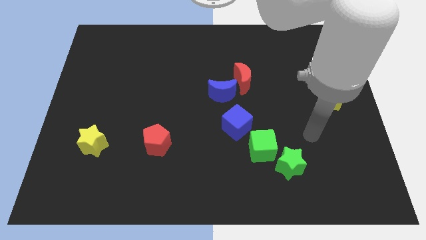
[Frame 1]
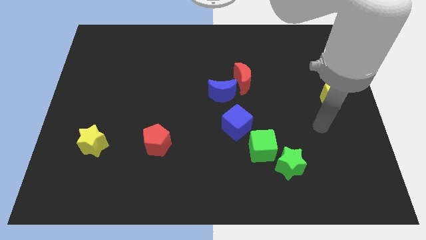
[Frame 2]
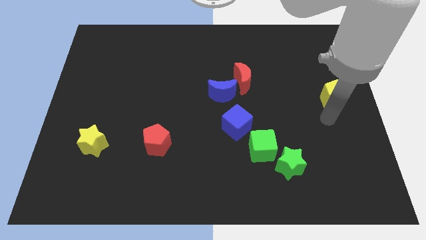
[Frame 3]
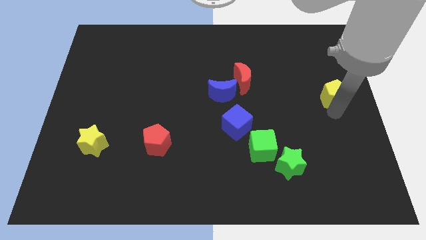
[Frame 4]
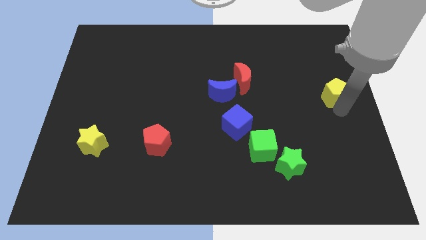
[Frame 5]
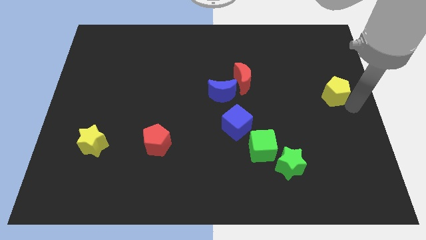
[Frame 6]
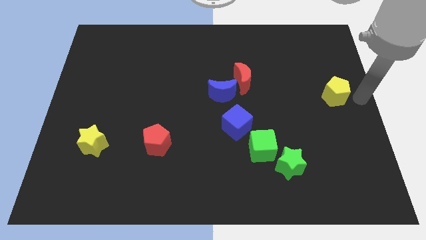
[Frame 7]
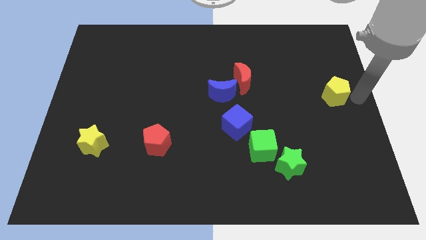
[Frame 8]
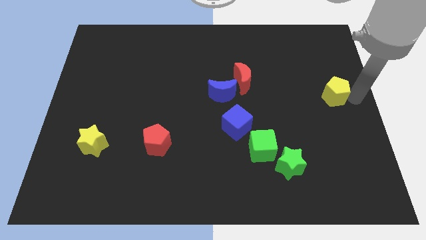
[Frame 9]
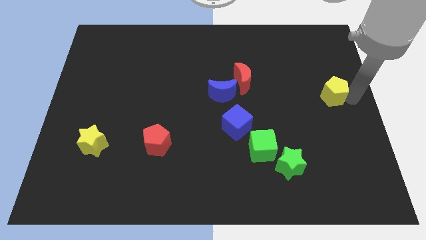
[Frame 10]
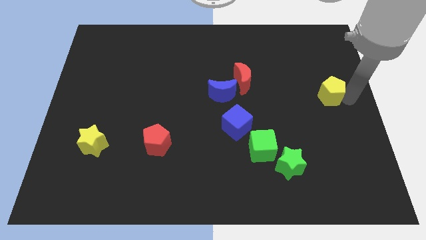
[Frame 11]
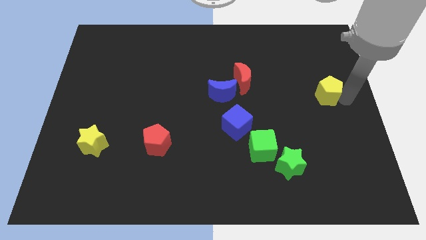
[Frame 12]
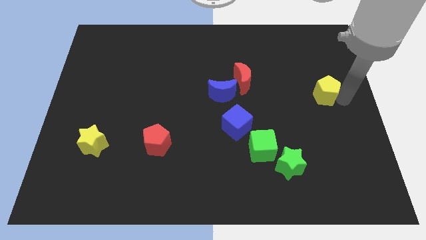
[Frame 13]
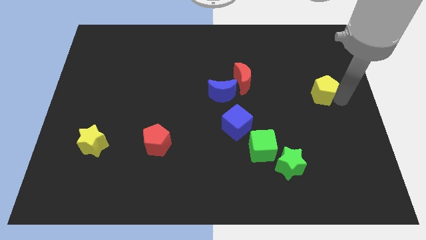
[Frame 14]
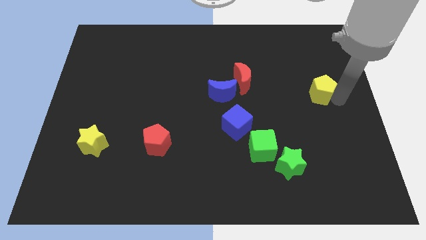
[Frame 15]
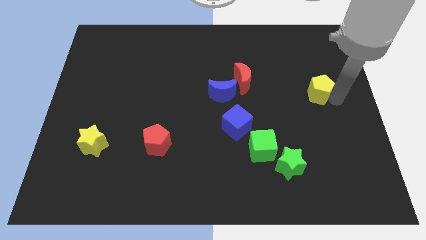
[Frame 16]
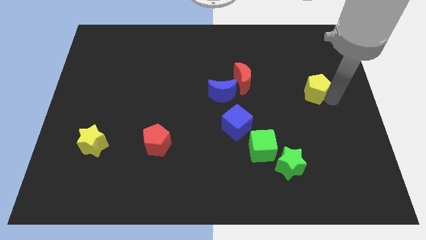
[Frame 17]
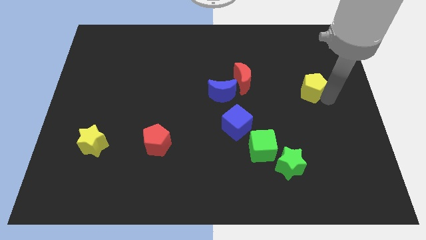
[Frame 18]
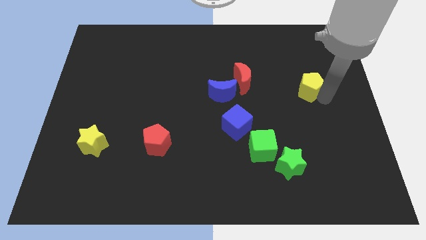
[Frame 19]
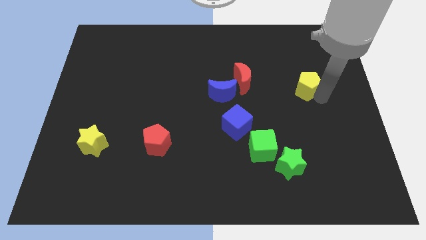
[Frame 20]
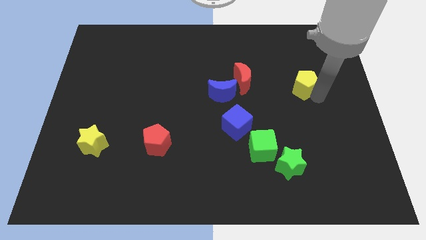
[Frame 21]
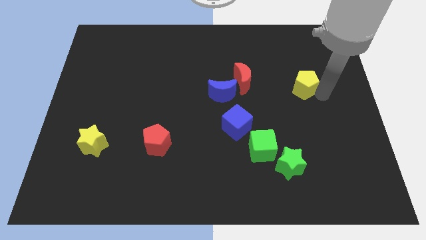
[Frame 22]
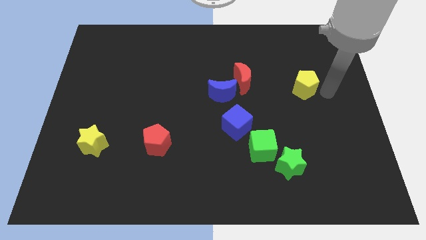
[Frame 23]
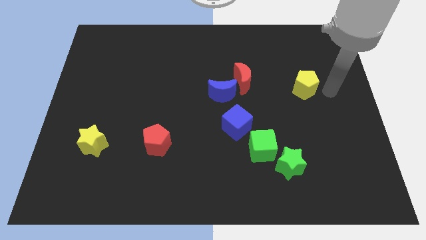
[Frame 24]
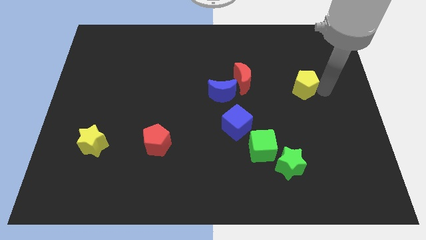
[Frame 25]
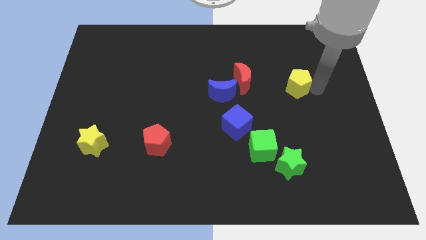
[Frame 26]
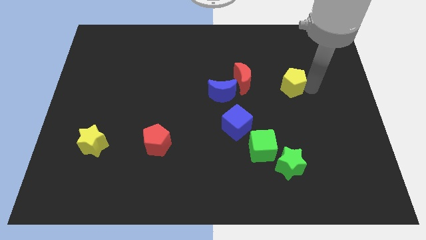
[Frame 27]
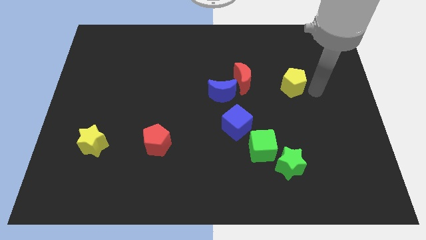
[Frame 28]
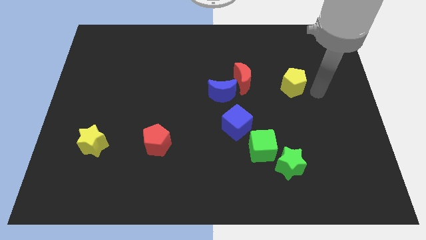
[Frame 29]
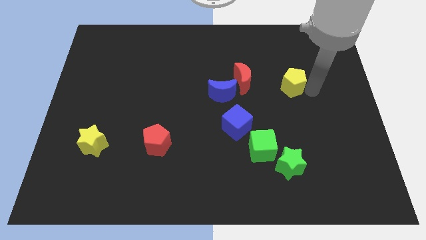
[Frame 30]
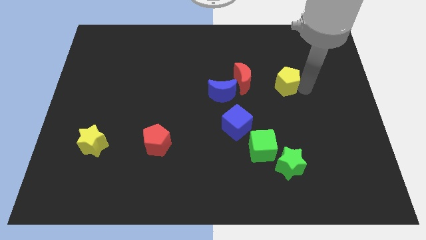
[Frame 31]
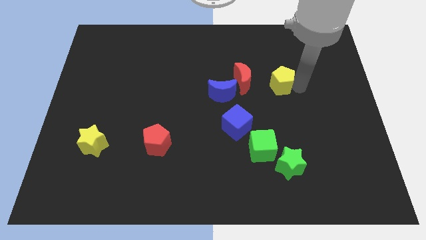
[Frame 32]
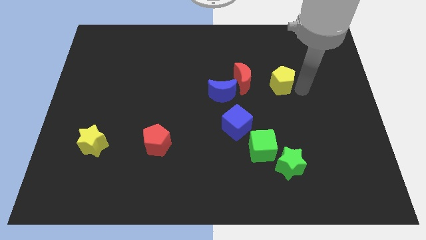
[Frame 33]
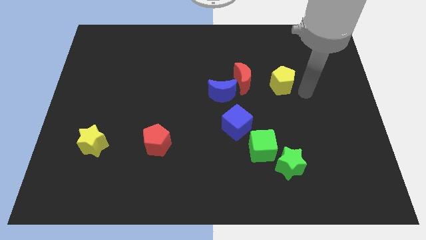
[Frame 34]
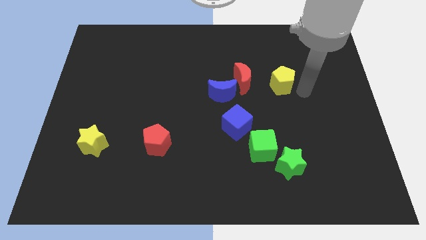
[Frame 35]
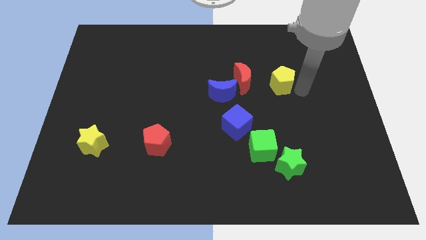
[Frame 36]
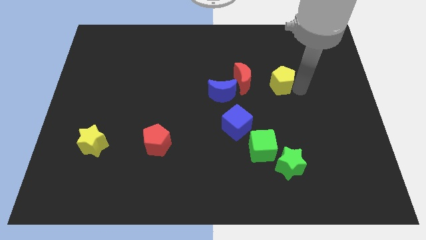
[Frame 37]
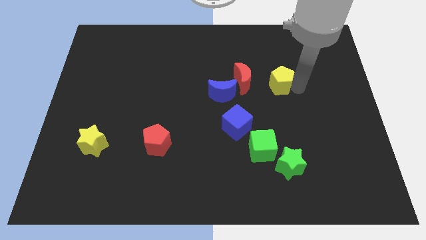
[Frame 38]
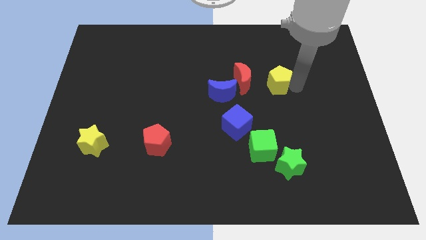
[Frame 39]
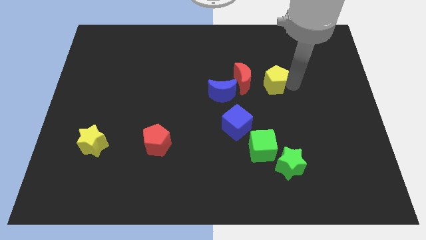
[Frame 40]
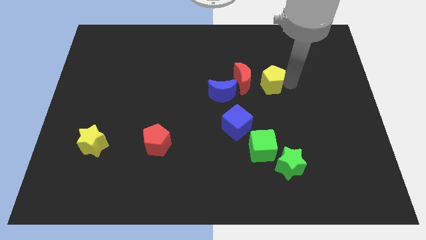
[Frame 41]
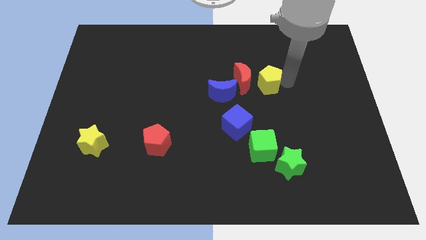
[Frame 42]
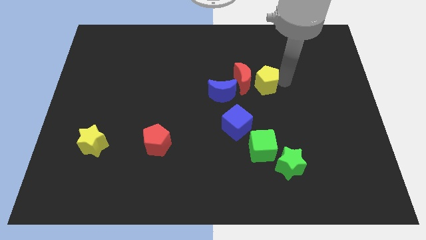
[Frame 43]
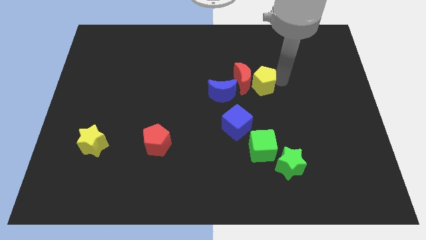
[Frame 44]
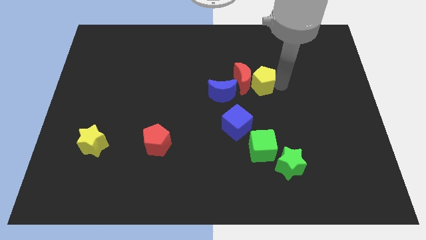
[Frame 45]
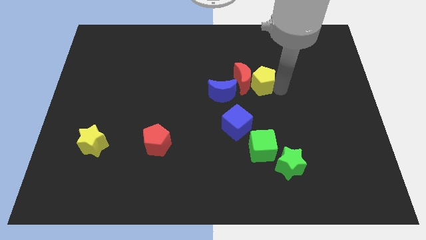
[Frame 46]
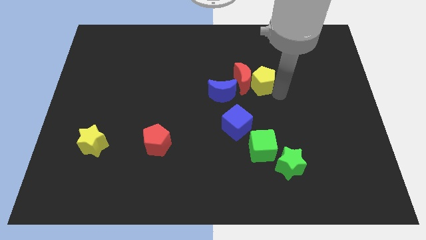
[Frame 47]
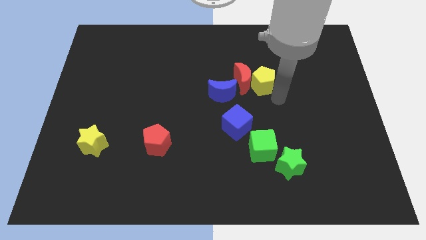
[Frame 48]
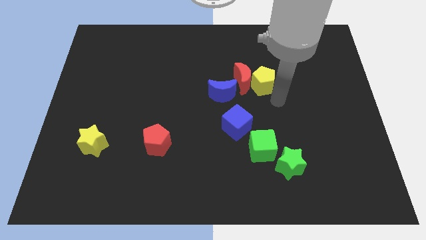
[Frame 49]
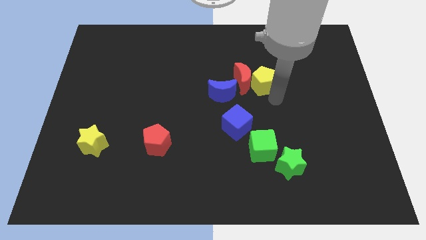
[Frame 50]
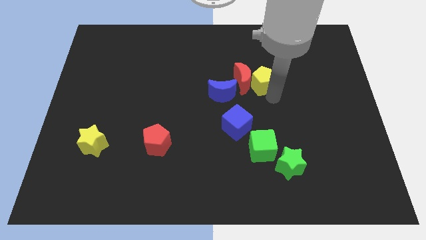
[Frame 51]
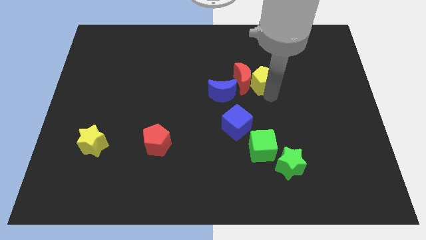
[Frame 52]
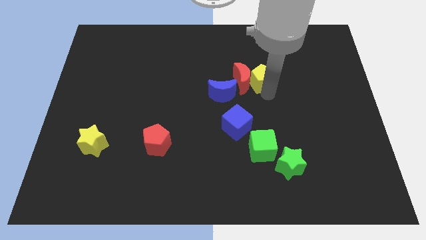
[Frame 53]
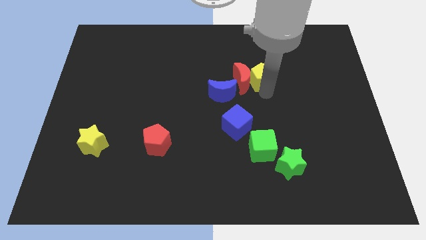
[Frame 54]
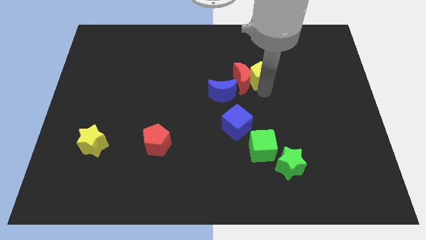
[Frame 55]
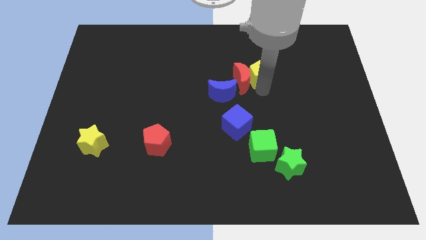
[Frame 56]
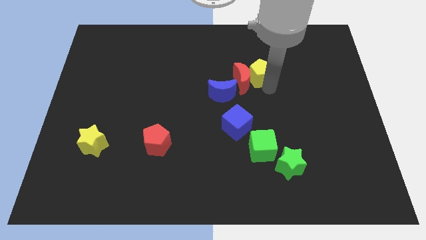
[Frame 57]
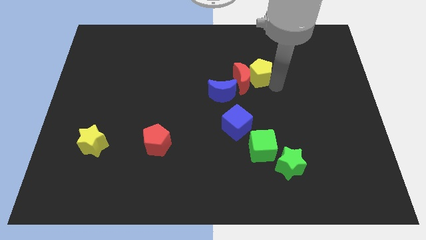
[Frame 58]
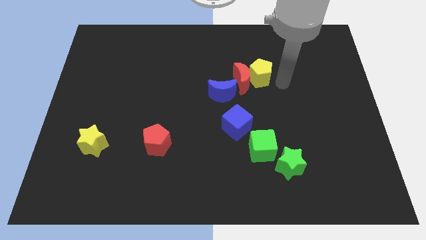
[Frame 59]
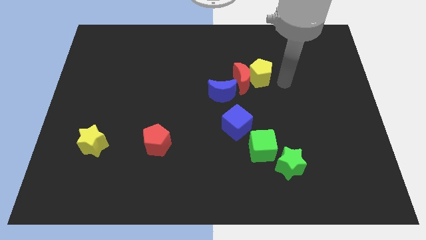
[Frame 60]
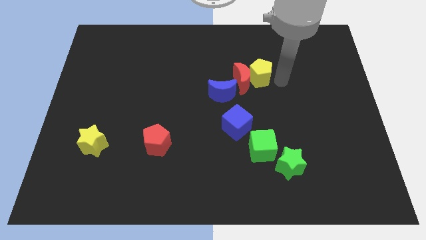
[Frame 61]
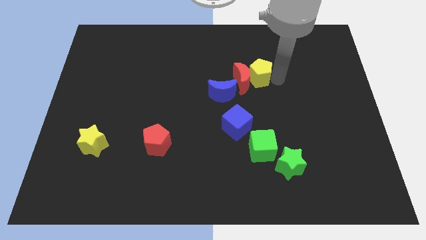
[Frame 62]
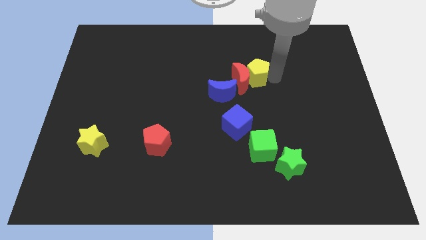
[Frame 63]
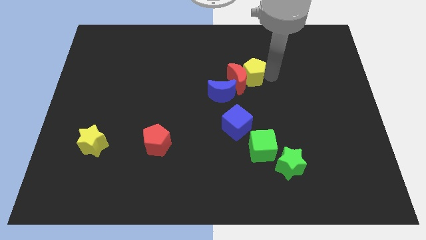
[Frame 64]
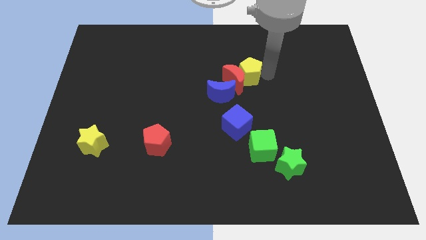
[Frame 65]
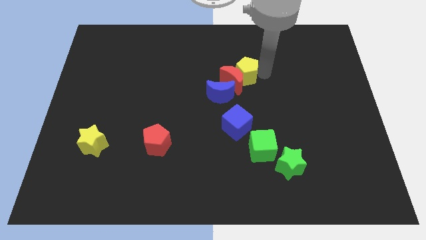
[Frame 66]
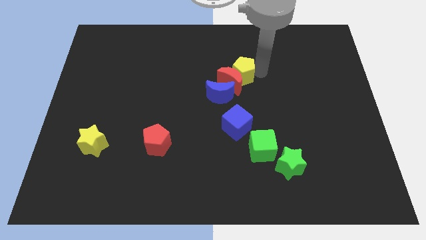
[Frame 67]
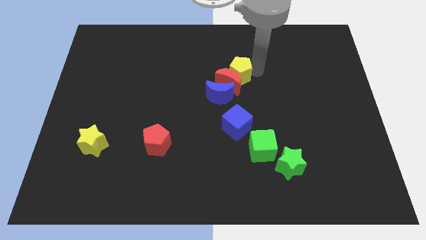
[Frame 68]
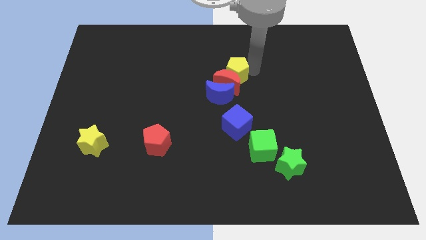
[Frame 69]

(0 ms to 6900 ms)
push the yellow pentagon to the top left of the red moon
